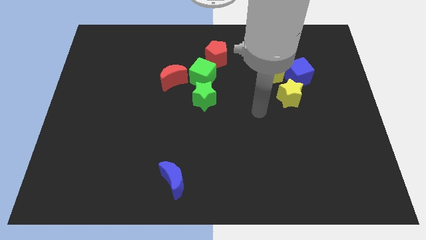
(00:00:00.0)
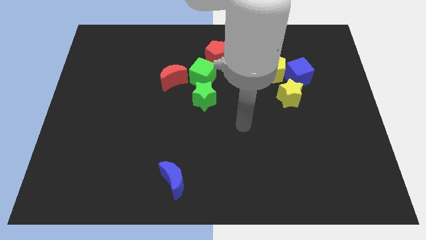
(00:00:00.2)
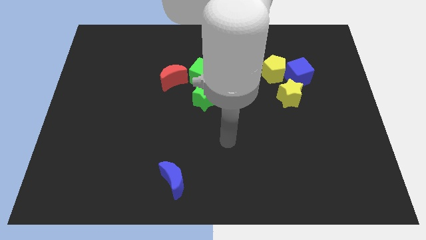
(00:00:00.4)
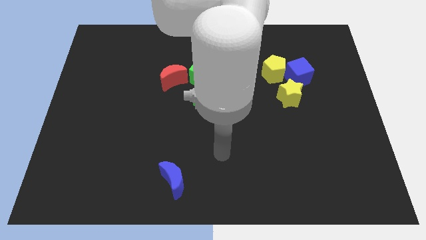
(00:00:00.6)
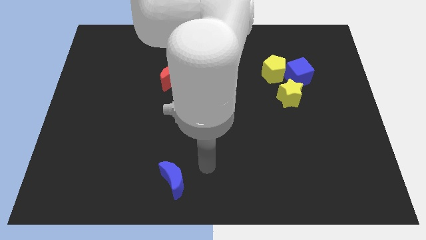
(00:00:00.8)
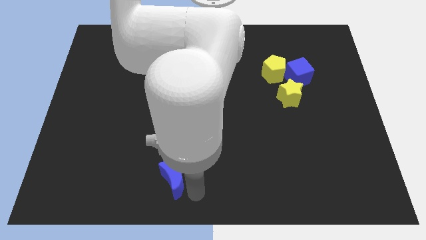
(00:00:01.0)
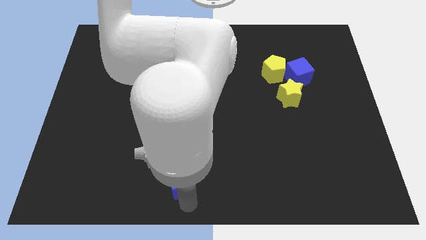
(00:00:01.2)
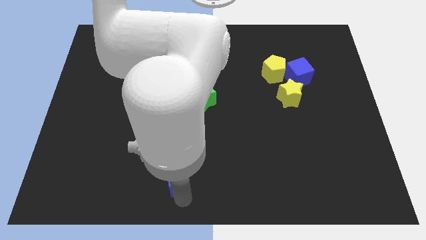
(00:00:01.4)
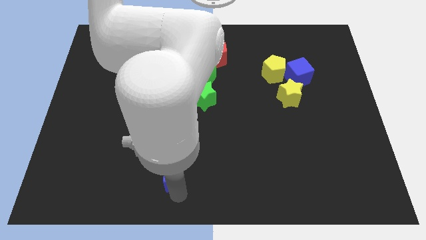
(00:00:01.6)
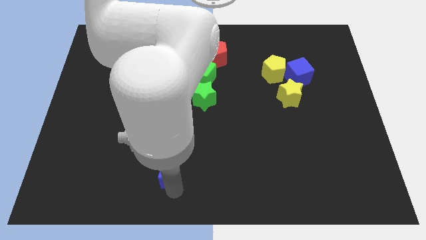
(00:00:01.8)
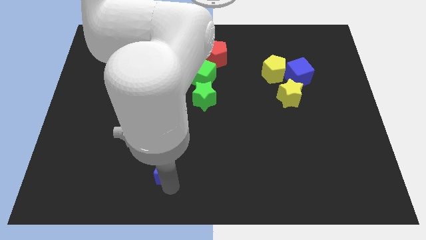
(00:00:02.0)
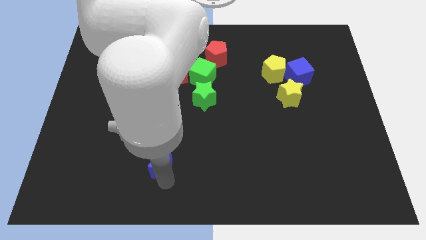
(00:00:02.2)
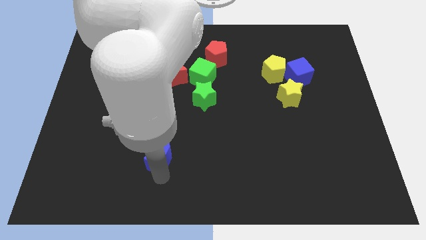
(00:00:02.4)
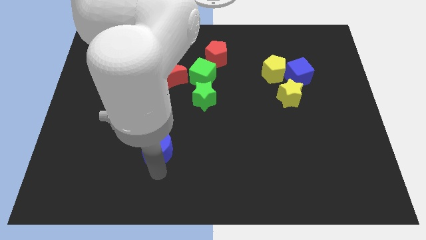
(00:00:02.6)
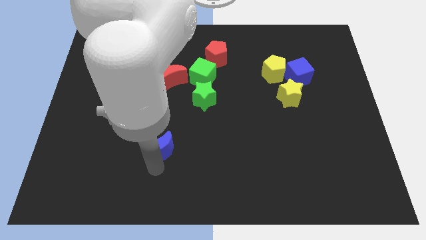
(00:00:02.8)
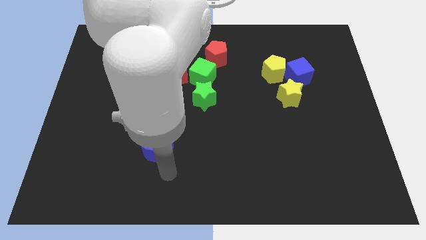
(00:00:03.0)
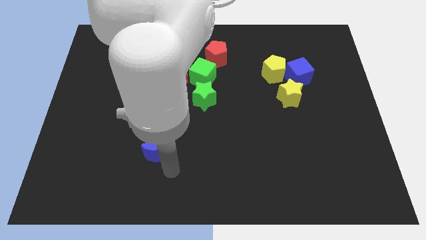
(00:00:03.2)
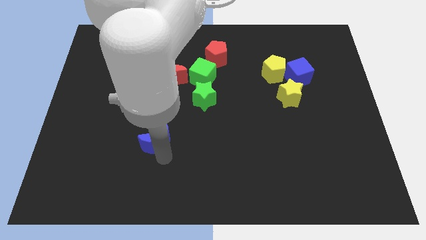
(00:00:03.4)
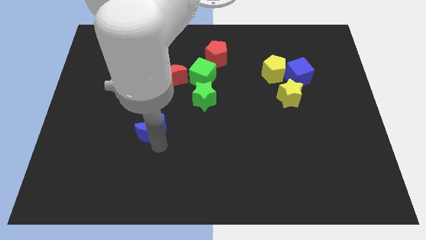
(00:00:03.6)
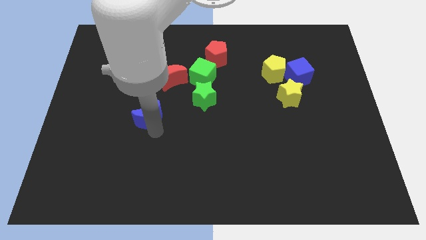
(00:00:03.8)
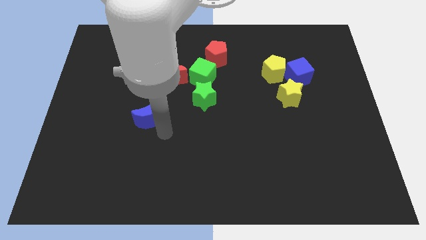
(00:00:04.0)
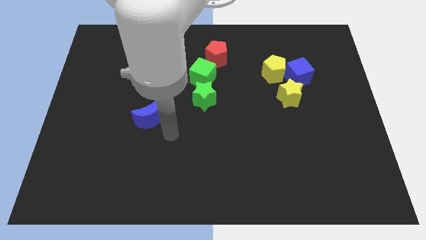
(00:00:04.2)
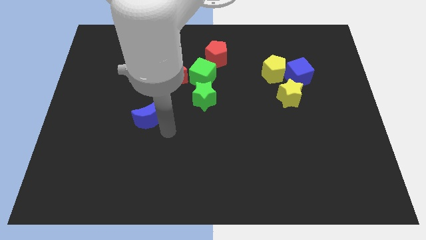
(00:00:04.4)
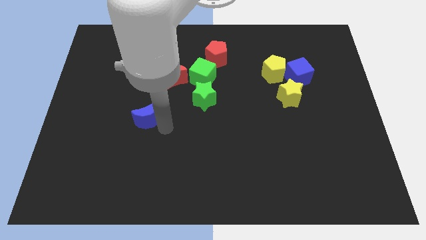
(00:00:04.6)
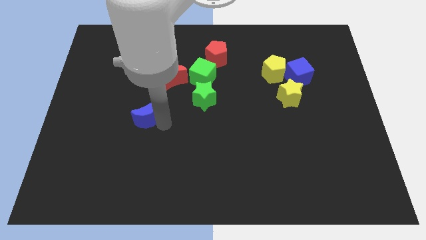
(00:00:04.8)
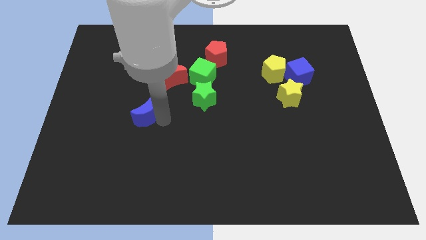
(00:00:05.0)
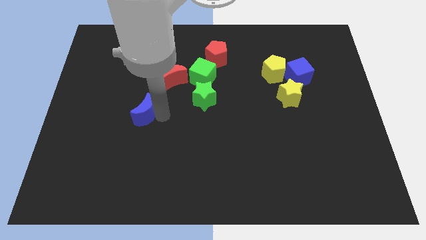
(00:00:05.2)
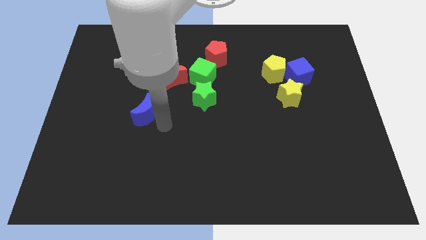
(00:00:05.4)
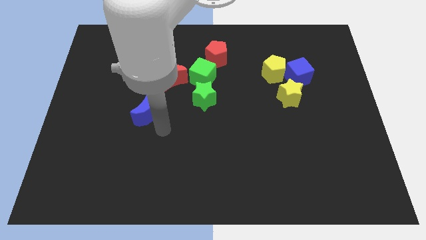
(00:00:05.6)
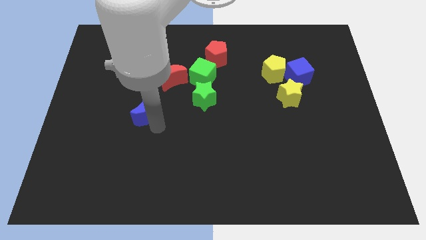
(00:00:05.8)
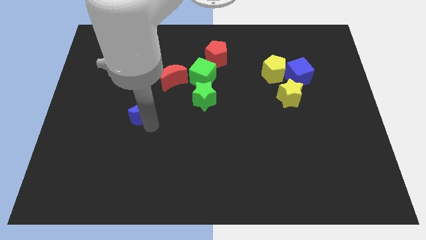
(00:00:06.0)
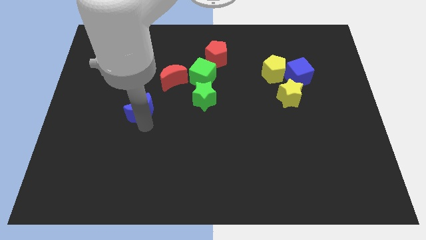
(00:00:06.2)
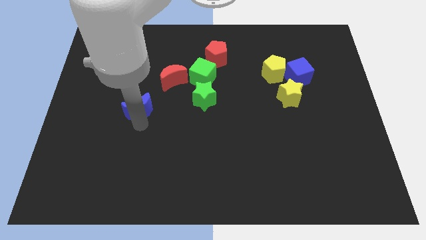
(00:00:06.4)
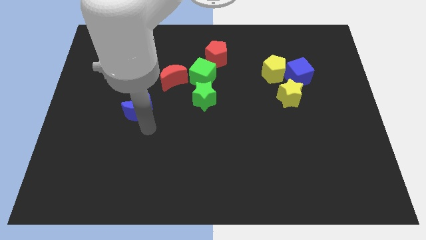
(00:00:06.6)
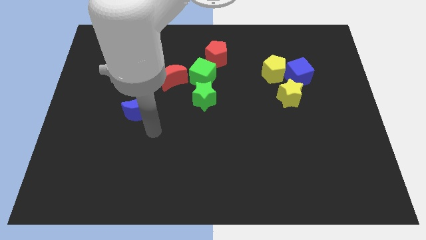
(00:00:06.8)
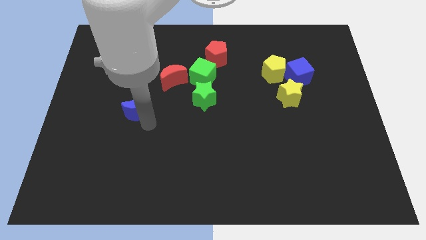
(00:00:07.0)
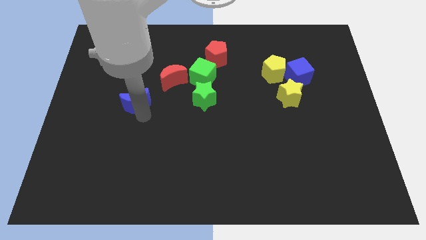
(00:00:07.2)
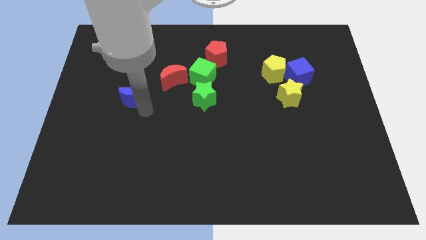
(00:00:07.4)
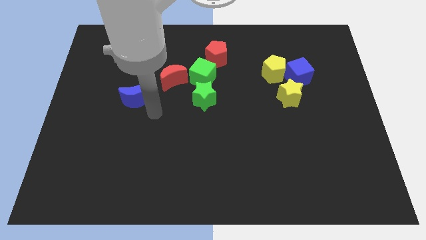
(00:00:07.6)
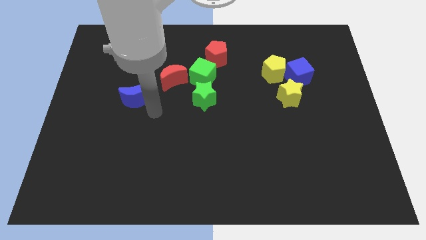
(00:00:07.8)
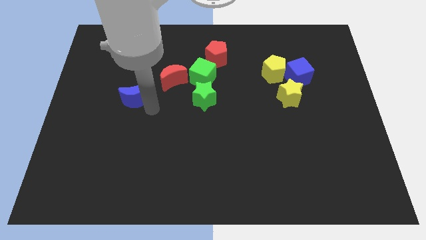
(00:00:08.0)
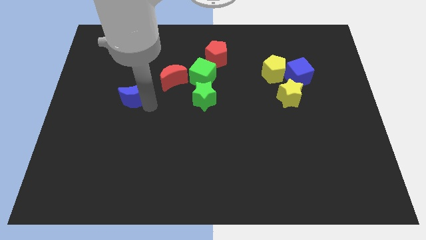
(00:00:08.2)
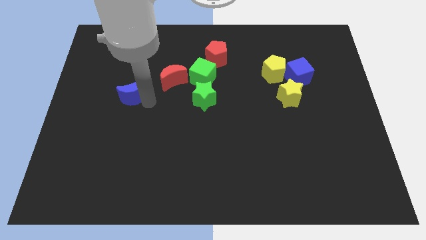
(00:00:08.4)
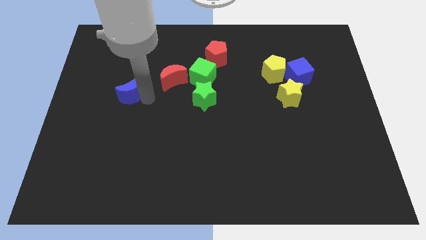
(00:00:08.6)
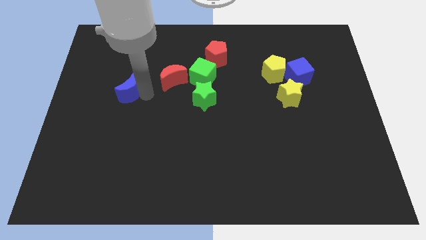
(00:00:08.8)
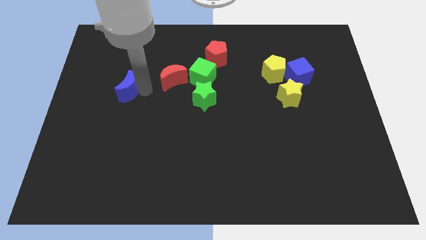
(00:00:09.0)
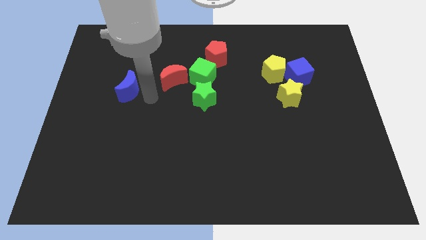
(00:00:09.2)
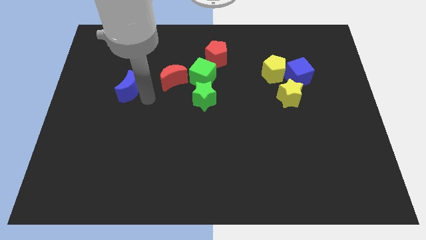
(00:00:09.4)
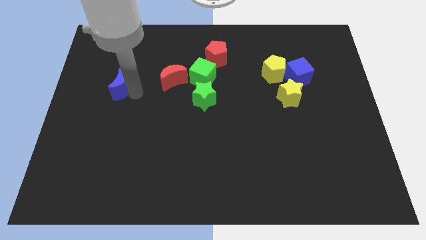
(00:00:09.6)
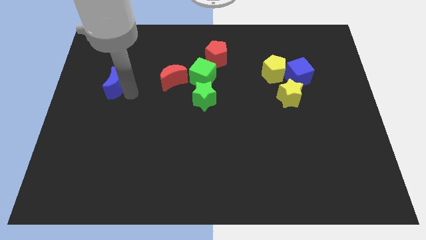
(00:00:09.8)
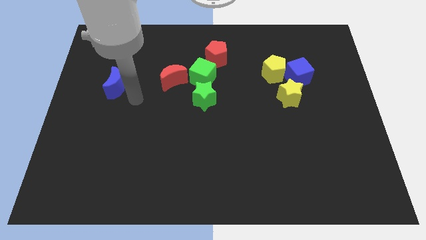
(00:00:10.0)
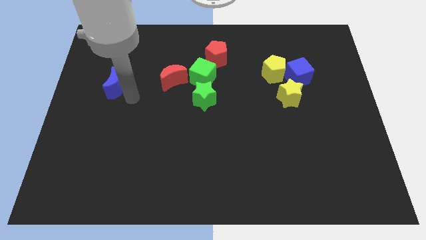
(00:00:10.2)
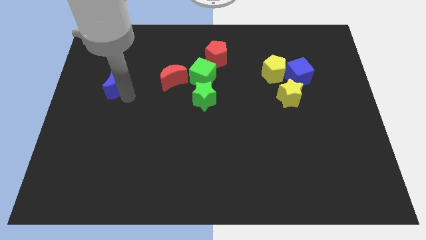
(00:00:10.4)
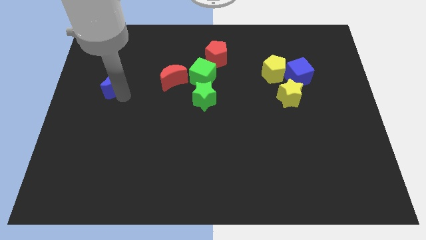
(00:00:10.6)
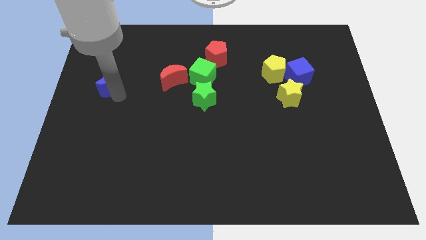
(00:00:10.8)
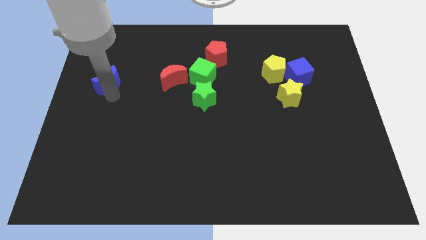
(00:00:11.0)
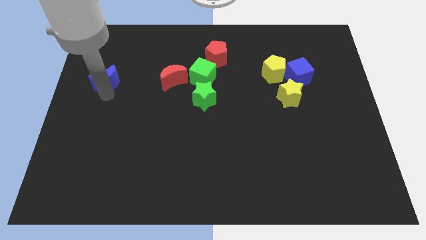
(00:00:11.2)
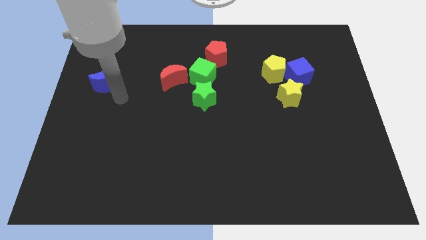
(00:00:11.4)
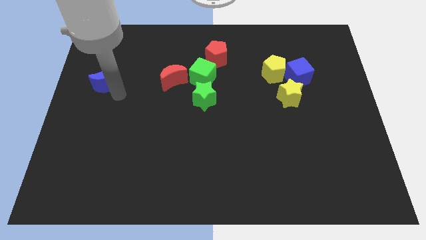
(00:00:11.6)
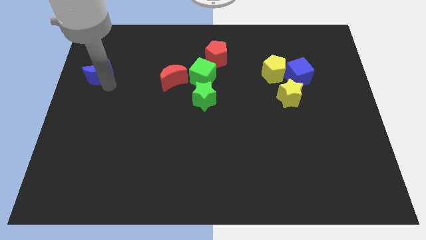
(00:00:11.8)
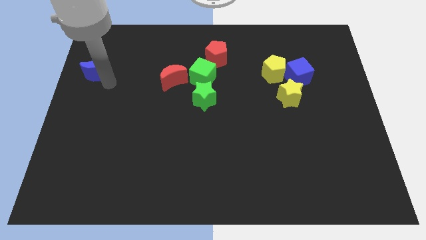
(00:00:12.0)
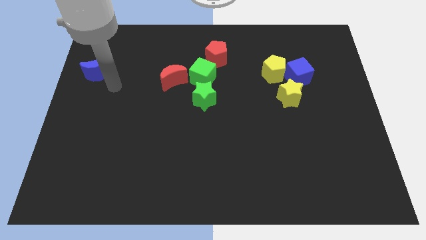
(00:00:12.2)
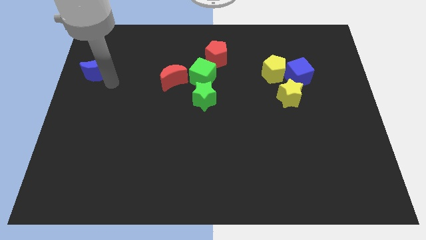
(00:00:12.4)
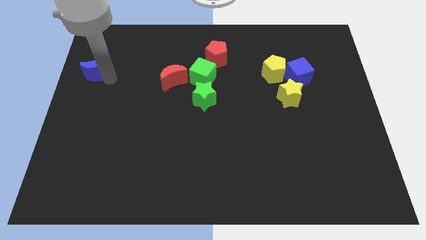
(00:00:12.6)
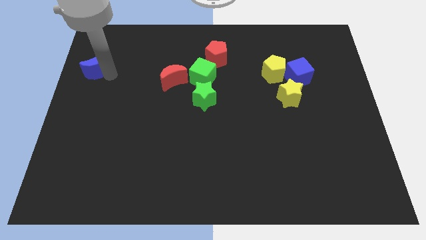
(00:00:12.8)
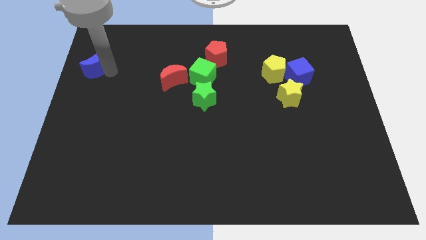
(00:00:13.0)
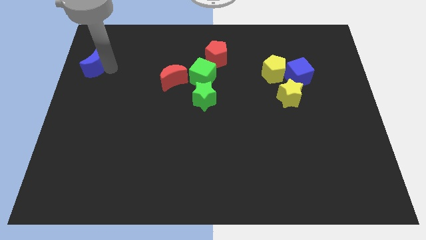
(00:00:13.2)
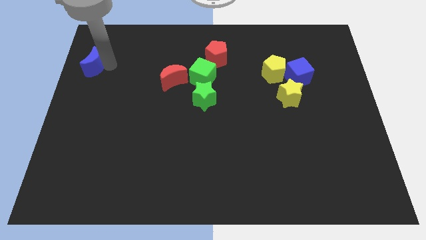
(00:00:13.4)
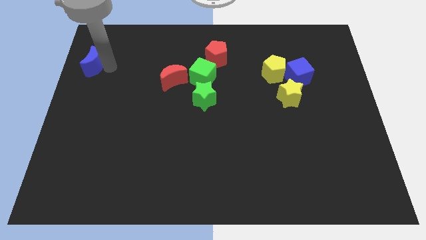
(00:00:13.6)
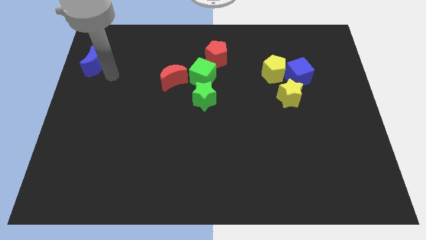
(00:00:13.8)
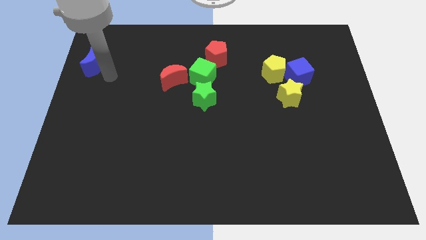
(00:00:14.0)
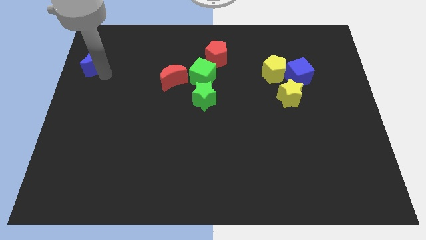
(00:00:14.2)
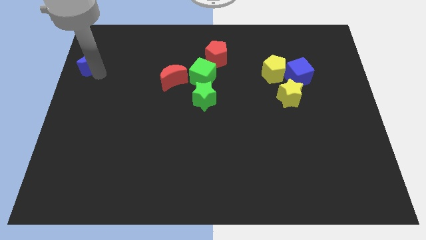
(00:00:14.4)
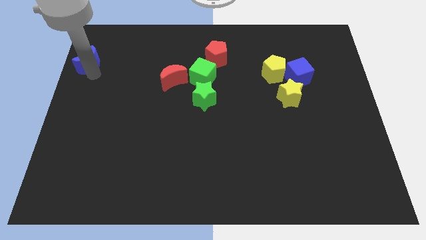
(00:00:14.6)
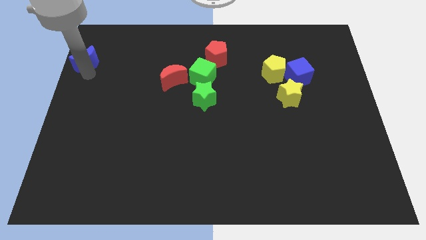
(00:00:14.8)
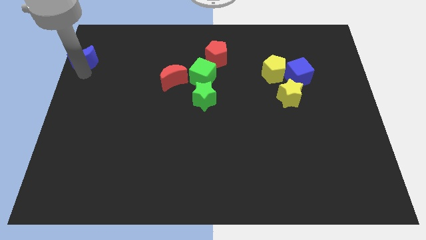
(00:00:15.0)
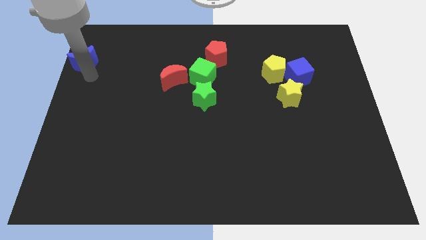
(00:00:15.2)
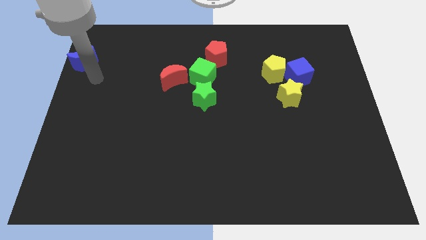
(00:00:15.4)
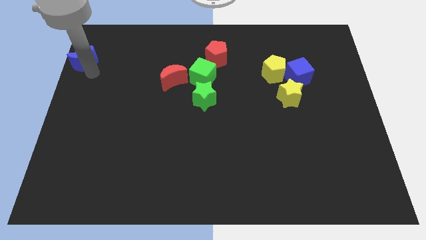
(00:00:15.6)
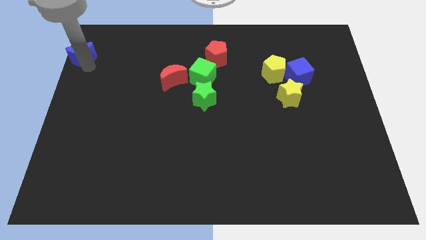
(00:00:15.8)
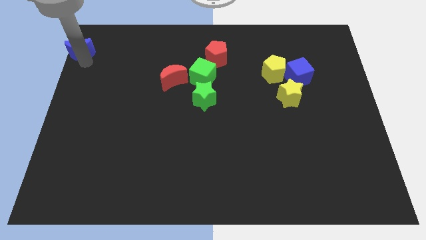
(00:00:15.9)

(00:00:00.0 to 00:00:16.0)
push the blue moon to the top left
